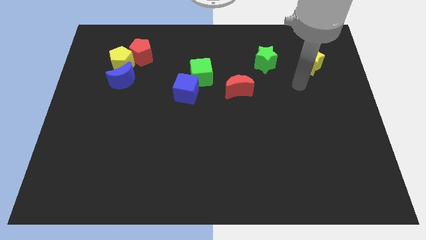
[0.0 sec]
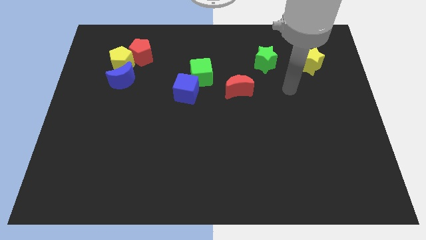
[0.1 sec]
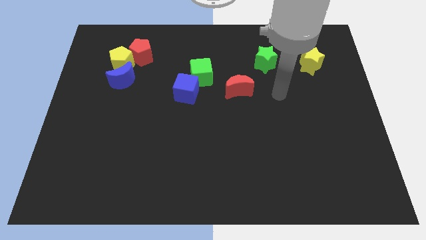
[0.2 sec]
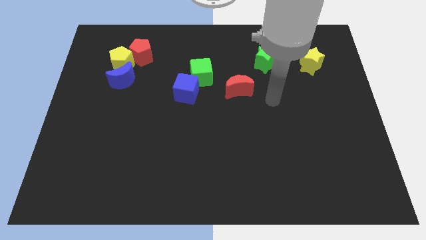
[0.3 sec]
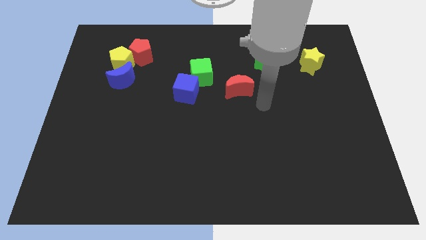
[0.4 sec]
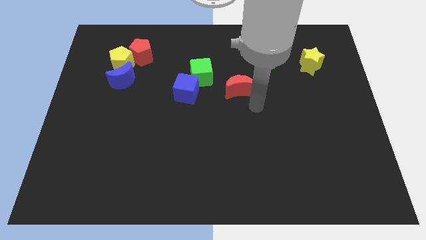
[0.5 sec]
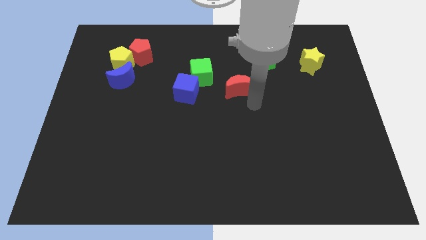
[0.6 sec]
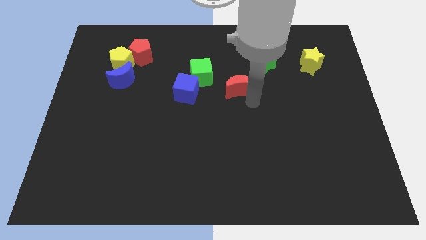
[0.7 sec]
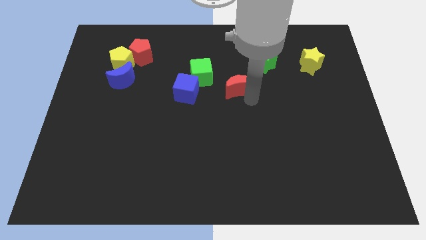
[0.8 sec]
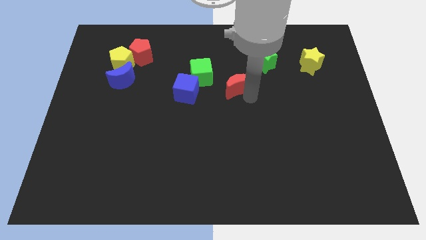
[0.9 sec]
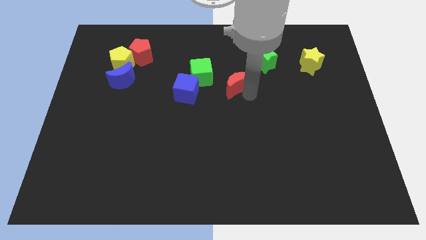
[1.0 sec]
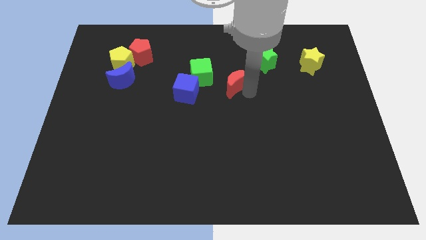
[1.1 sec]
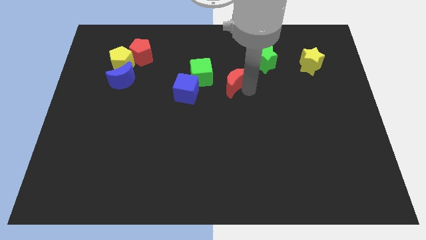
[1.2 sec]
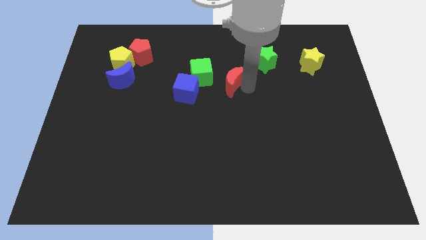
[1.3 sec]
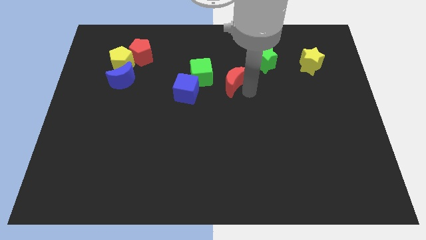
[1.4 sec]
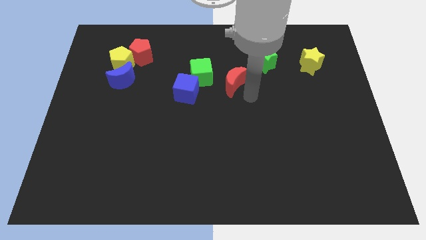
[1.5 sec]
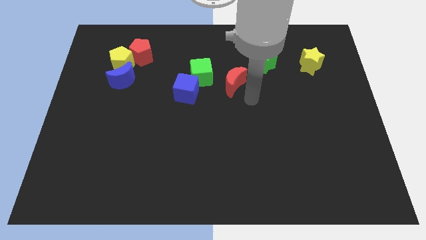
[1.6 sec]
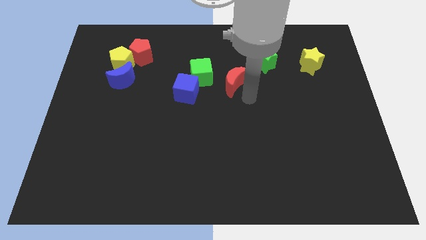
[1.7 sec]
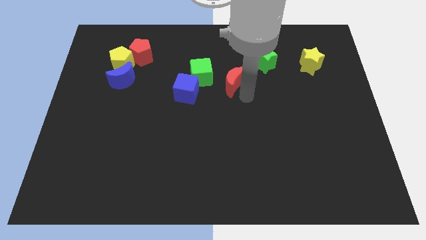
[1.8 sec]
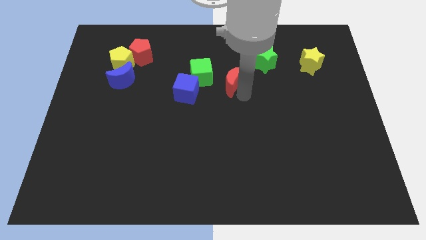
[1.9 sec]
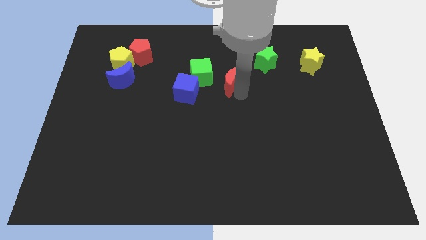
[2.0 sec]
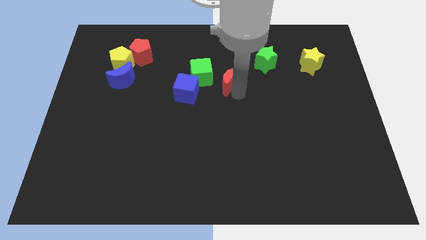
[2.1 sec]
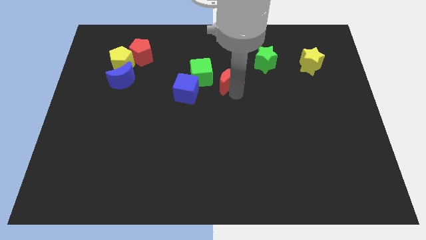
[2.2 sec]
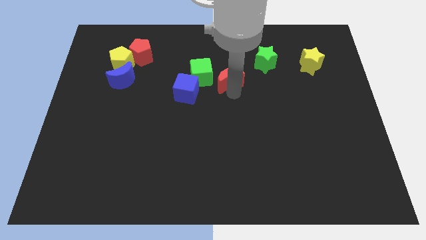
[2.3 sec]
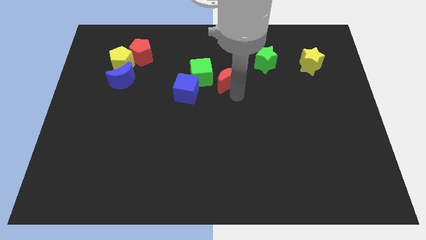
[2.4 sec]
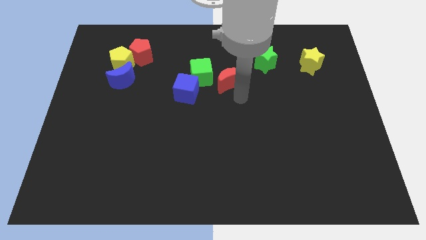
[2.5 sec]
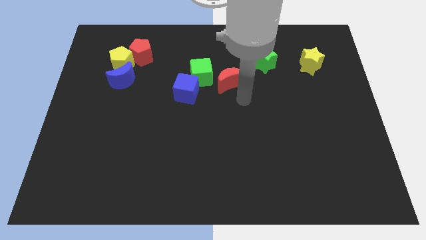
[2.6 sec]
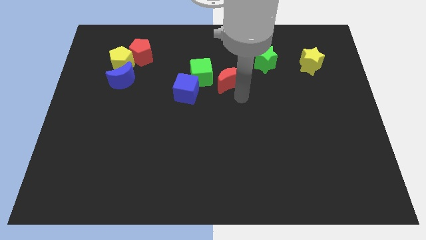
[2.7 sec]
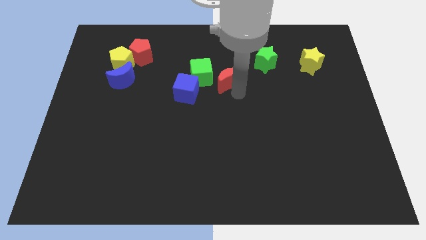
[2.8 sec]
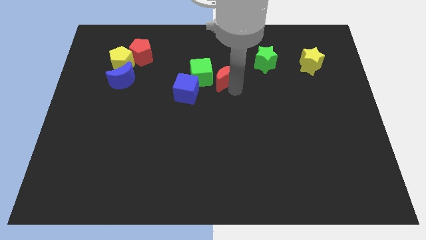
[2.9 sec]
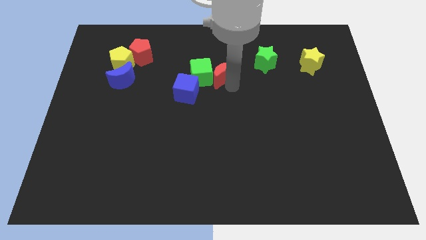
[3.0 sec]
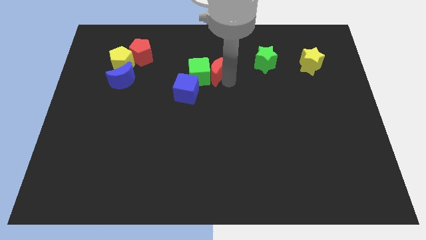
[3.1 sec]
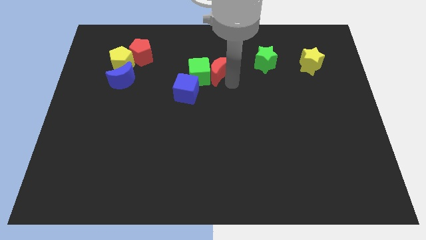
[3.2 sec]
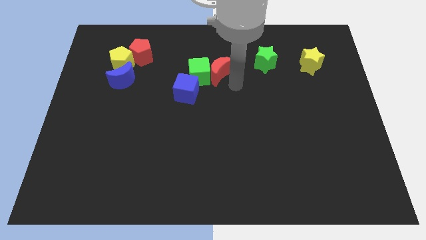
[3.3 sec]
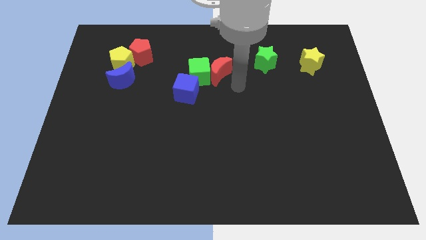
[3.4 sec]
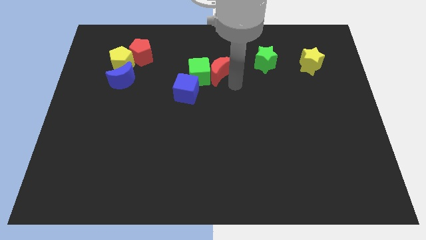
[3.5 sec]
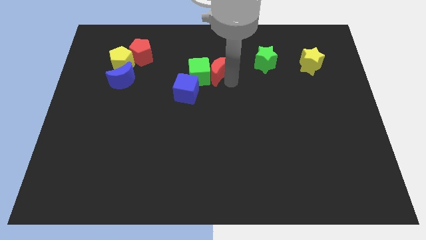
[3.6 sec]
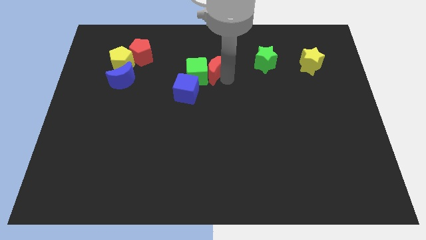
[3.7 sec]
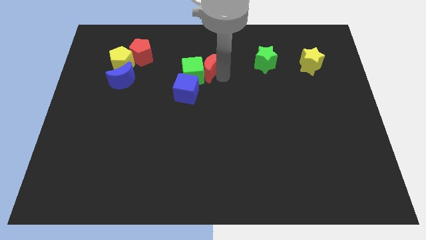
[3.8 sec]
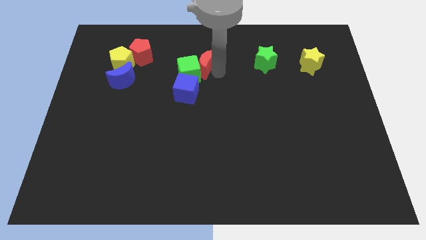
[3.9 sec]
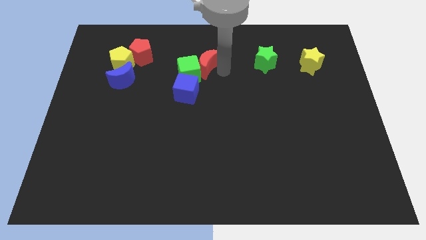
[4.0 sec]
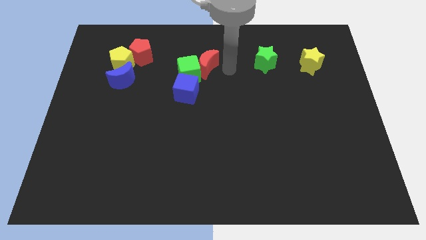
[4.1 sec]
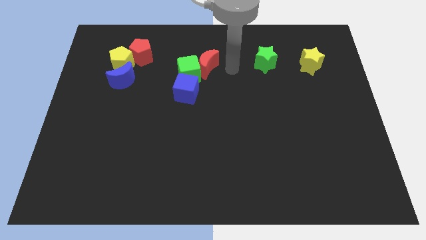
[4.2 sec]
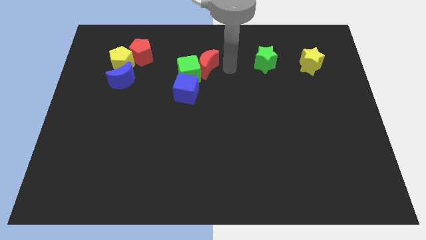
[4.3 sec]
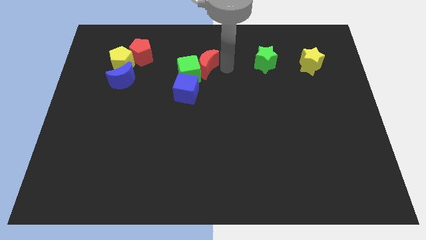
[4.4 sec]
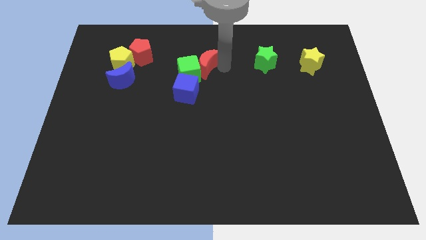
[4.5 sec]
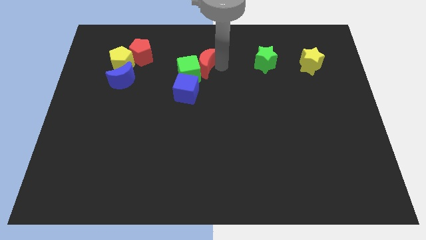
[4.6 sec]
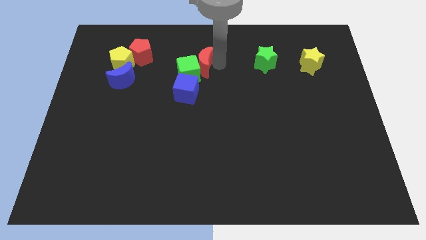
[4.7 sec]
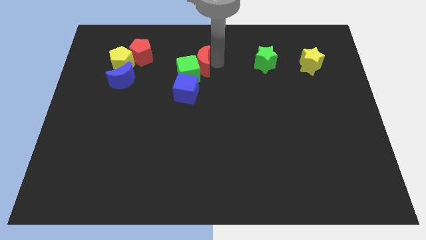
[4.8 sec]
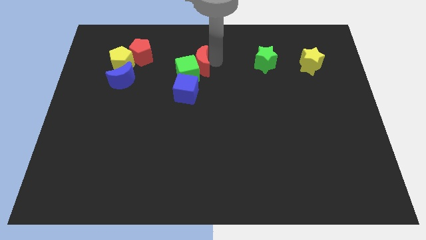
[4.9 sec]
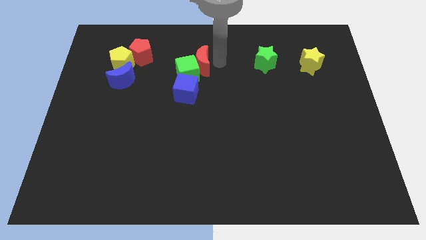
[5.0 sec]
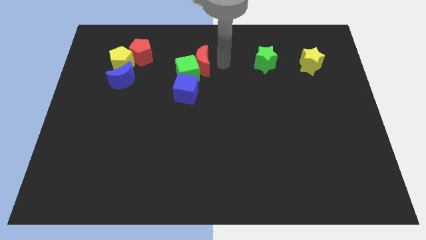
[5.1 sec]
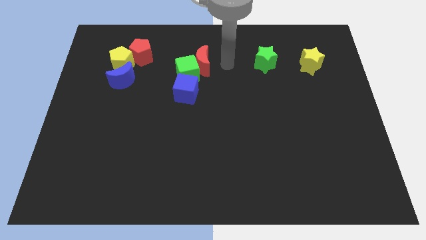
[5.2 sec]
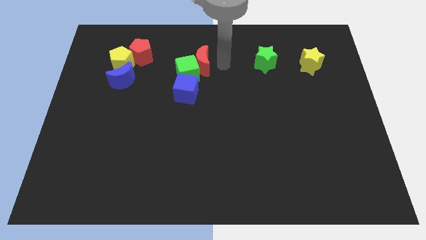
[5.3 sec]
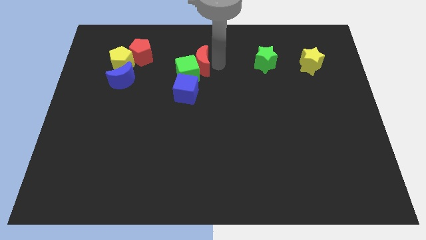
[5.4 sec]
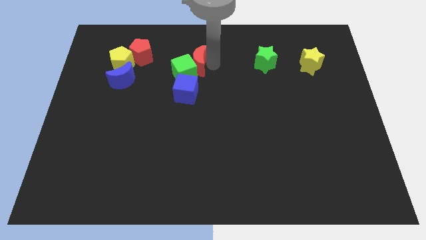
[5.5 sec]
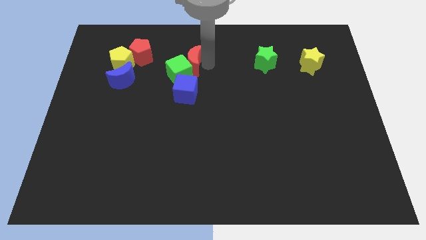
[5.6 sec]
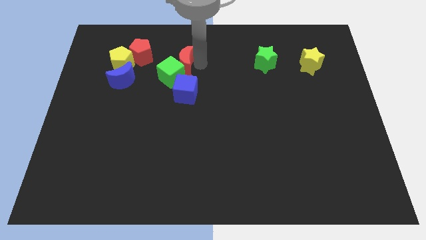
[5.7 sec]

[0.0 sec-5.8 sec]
push the red moon right of the yellow pentagon

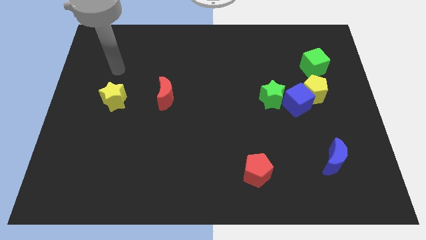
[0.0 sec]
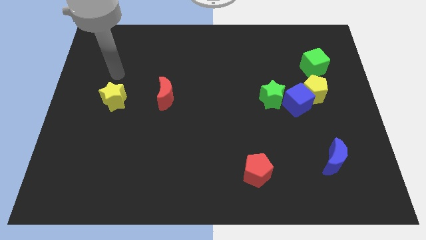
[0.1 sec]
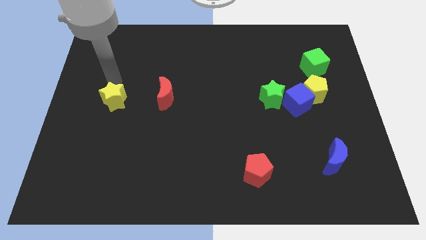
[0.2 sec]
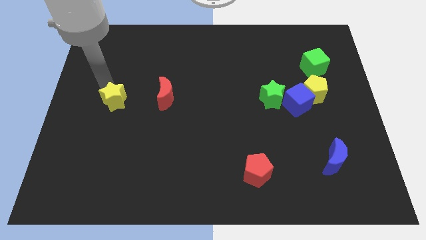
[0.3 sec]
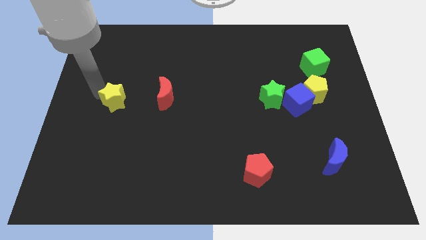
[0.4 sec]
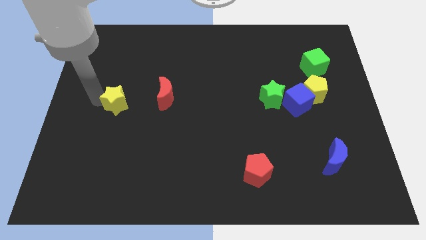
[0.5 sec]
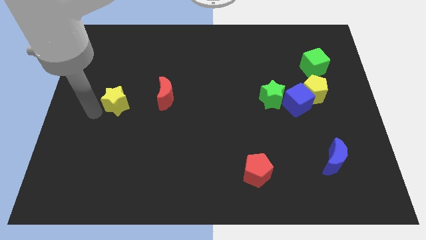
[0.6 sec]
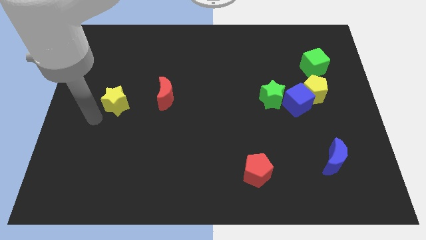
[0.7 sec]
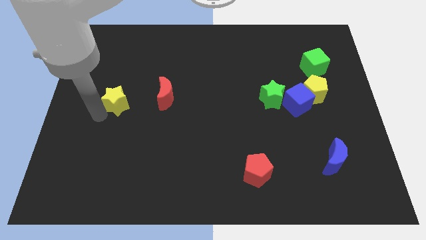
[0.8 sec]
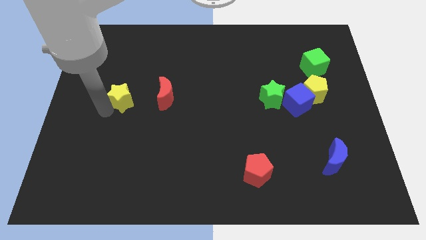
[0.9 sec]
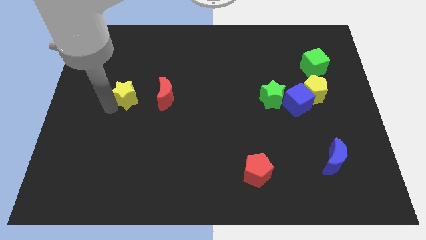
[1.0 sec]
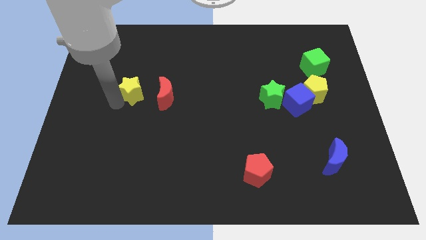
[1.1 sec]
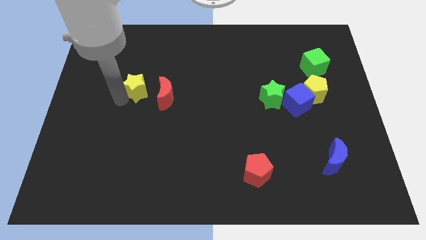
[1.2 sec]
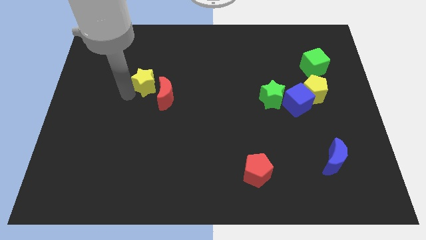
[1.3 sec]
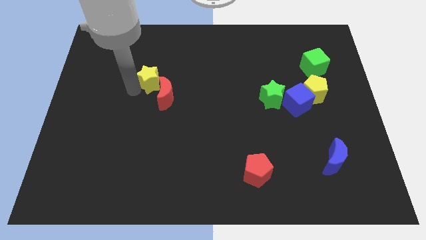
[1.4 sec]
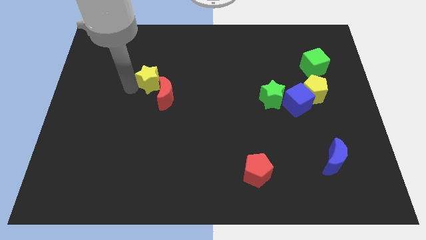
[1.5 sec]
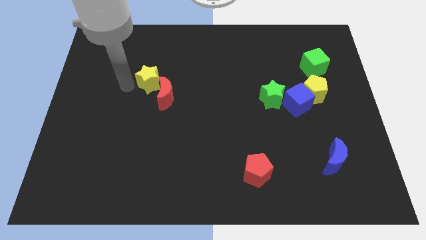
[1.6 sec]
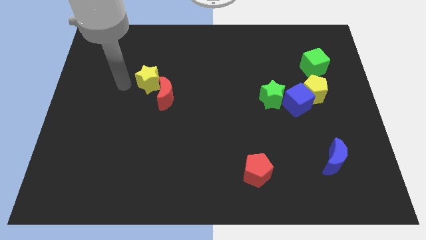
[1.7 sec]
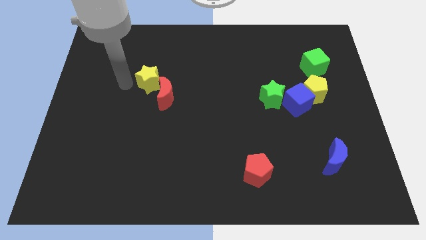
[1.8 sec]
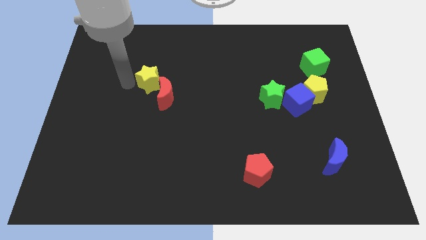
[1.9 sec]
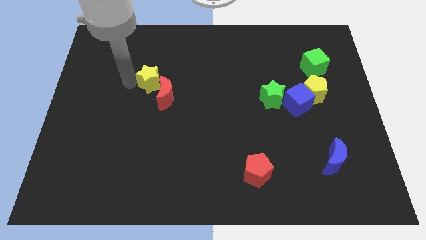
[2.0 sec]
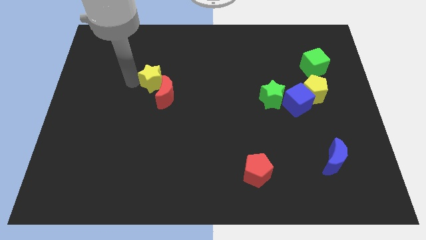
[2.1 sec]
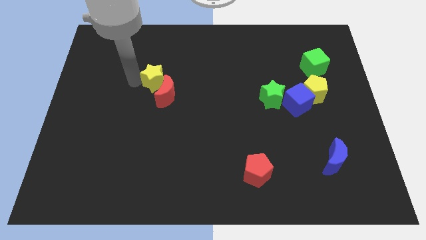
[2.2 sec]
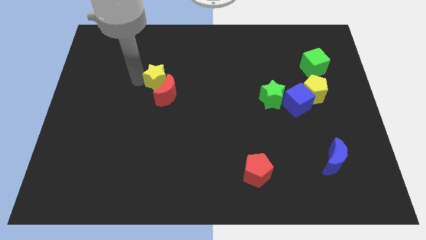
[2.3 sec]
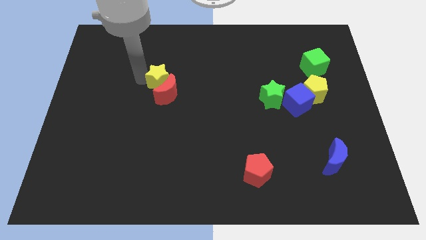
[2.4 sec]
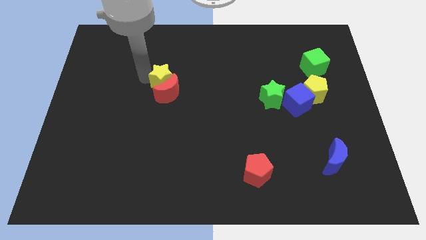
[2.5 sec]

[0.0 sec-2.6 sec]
put the yellow star to the top right side of the red moon
